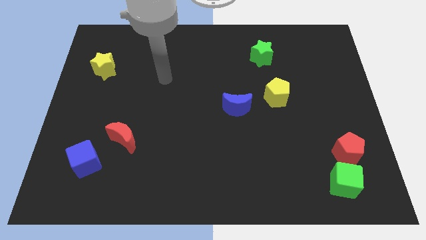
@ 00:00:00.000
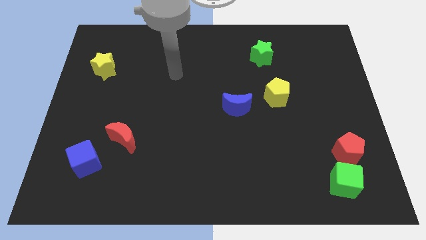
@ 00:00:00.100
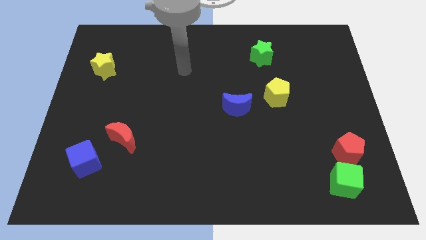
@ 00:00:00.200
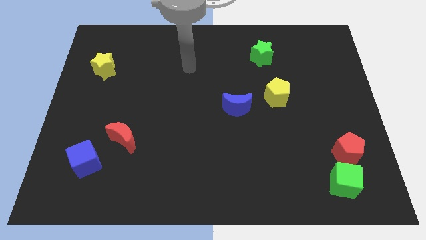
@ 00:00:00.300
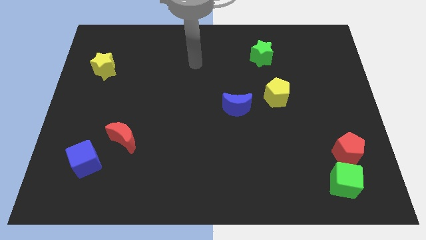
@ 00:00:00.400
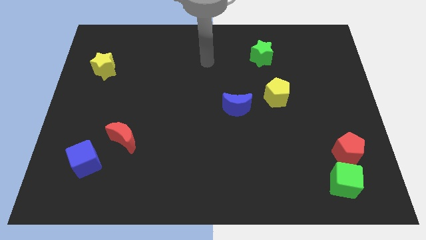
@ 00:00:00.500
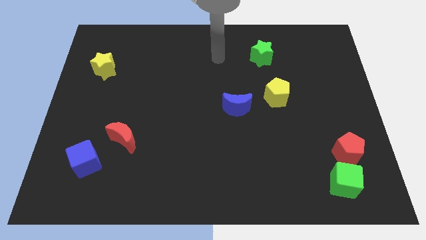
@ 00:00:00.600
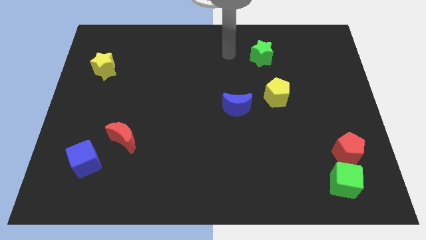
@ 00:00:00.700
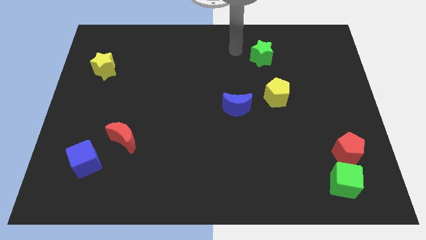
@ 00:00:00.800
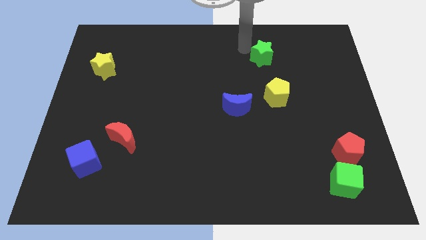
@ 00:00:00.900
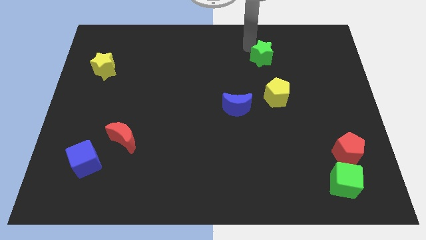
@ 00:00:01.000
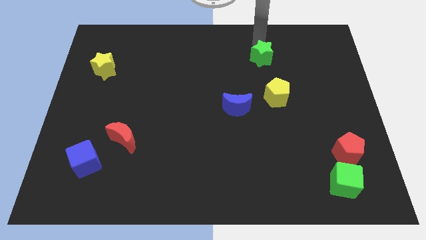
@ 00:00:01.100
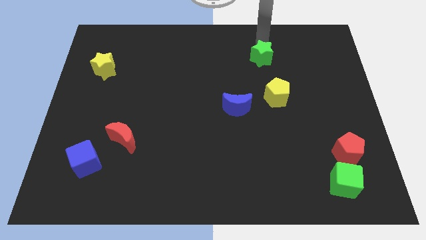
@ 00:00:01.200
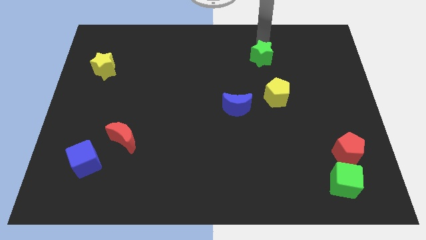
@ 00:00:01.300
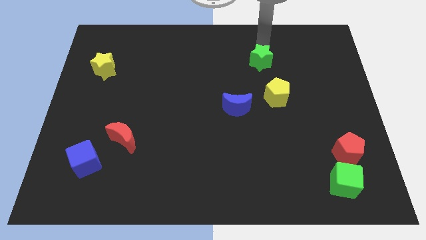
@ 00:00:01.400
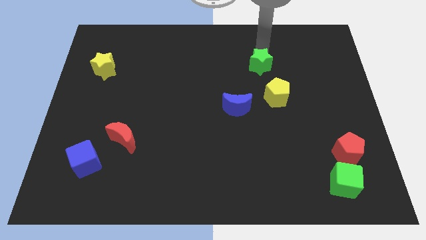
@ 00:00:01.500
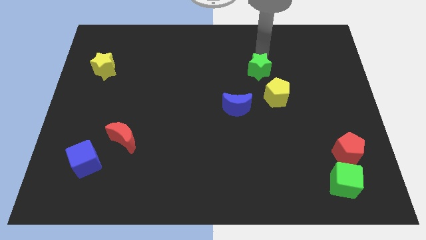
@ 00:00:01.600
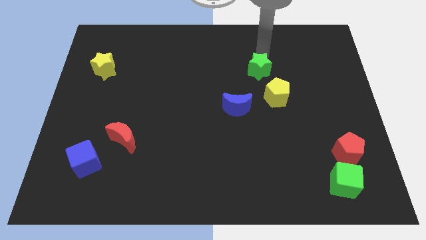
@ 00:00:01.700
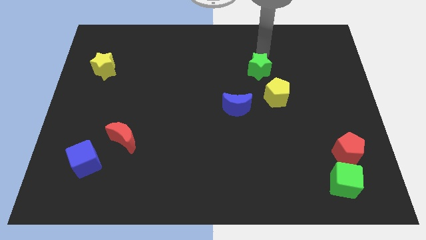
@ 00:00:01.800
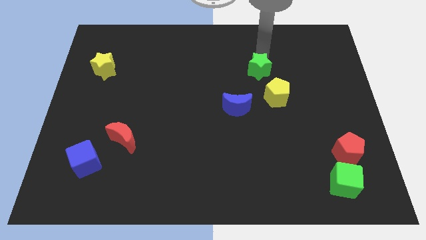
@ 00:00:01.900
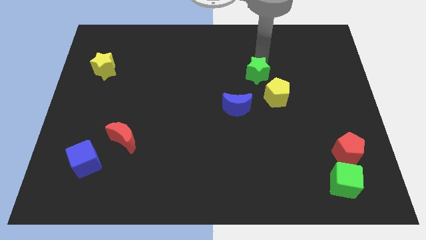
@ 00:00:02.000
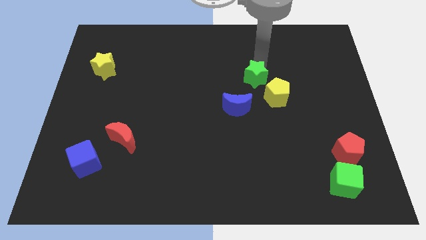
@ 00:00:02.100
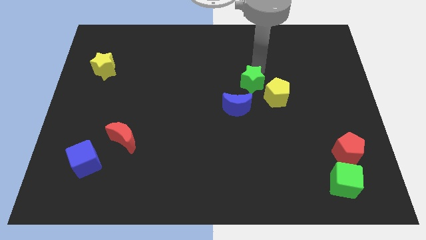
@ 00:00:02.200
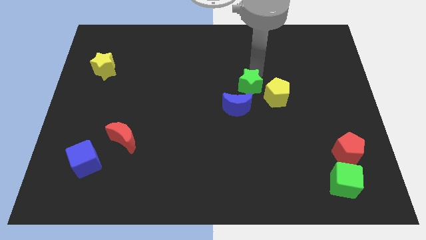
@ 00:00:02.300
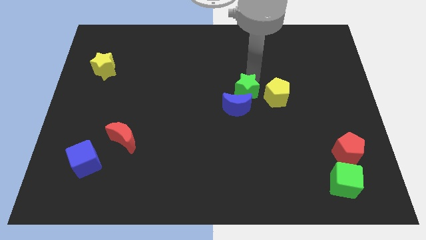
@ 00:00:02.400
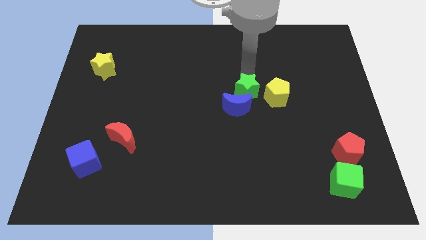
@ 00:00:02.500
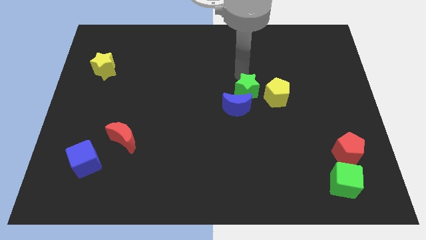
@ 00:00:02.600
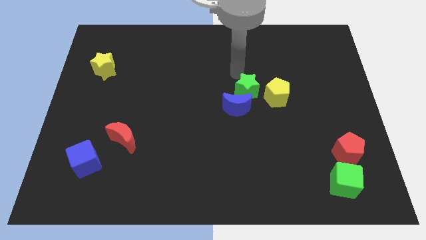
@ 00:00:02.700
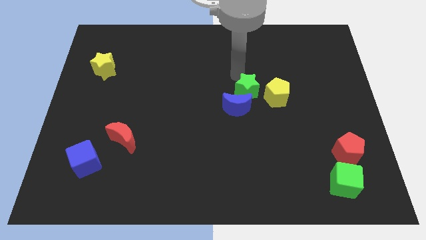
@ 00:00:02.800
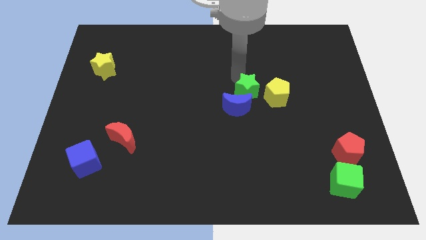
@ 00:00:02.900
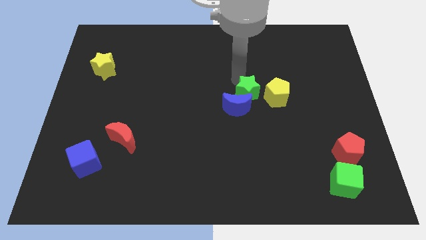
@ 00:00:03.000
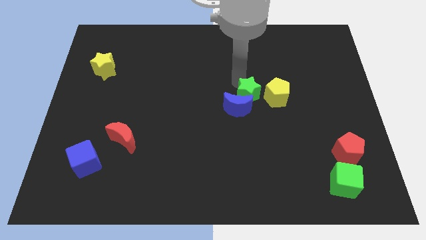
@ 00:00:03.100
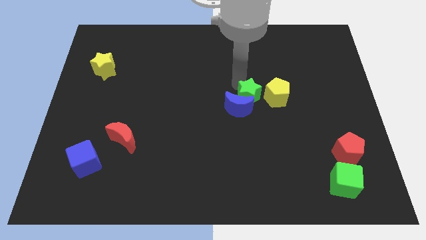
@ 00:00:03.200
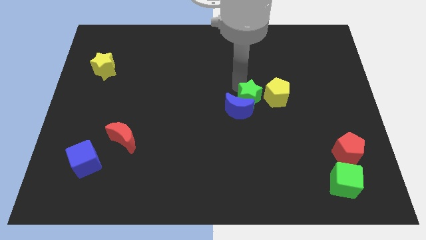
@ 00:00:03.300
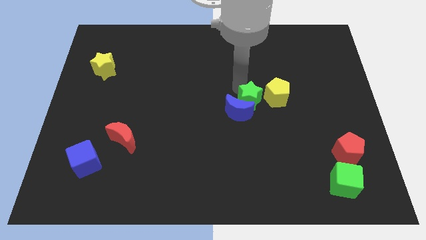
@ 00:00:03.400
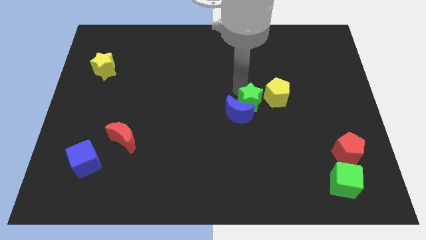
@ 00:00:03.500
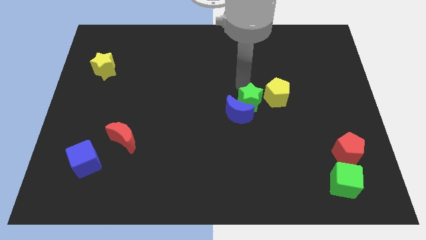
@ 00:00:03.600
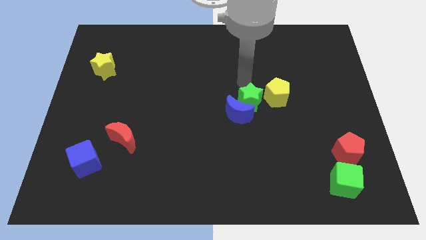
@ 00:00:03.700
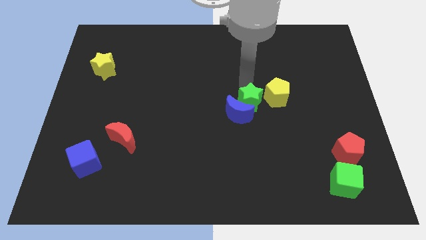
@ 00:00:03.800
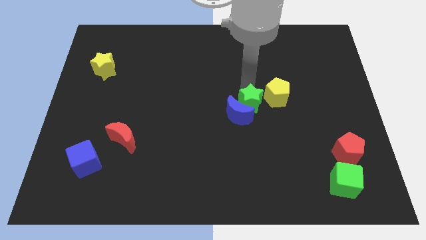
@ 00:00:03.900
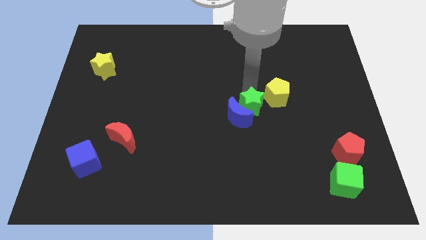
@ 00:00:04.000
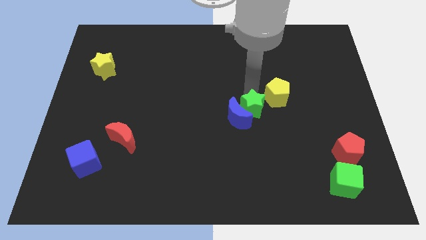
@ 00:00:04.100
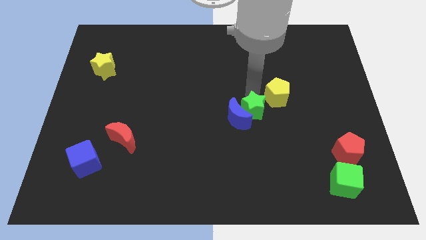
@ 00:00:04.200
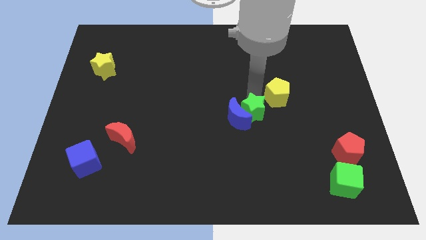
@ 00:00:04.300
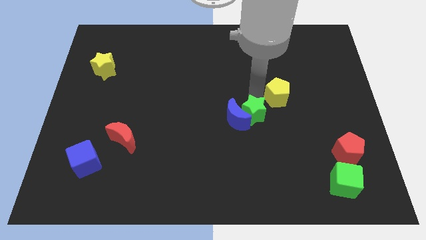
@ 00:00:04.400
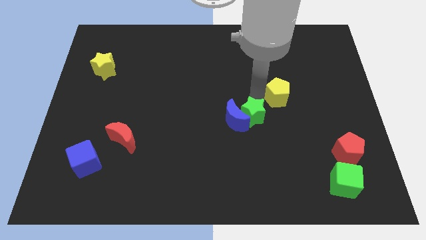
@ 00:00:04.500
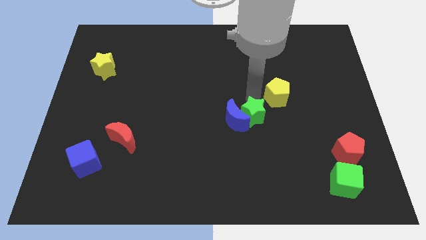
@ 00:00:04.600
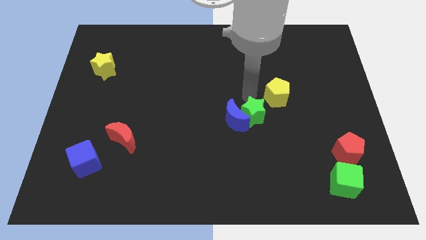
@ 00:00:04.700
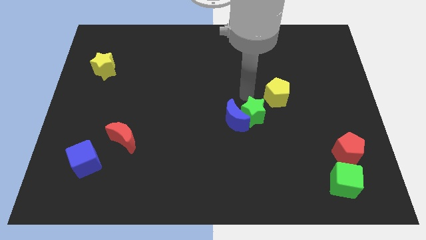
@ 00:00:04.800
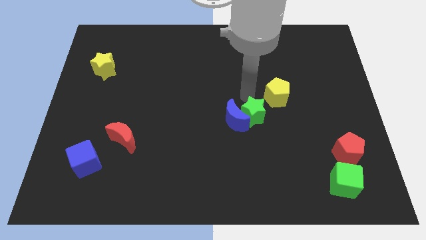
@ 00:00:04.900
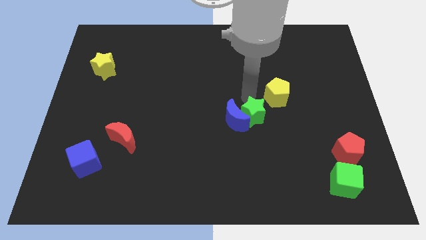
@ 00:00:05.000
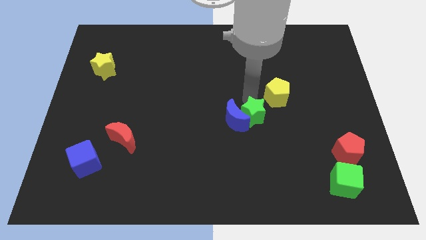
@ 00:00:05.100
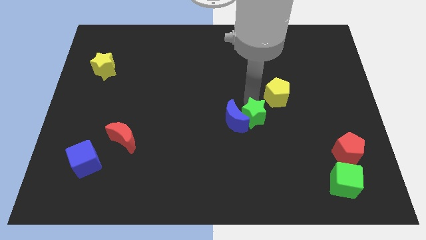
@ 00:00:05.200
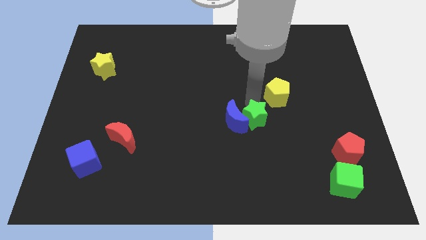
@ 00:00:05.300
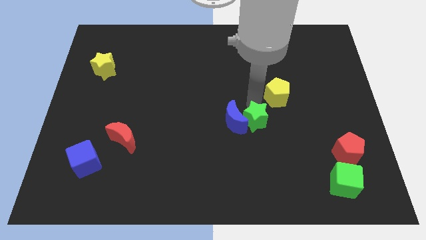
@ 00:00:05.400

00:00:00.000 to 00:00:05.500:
move the green star downwards

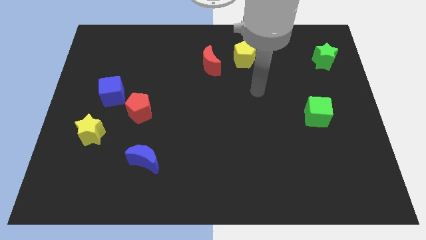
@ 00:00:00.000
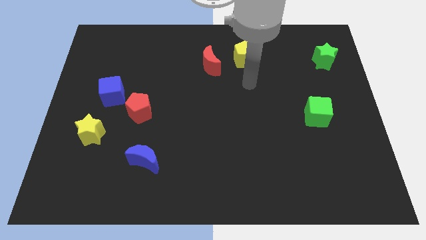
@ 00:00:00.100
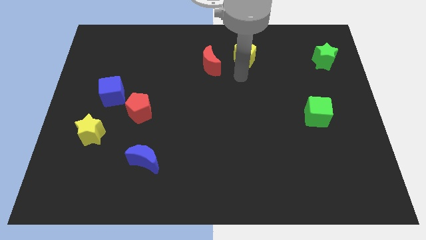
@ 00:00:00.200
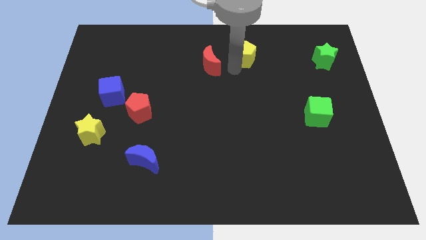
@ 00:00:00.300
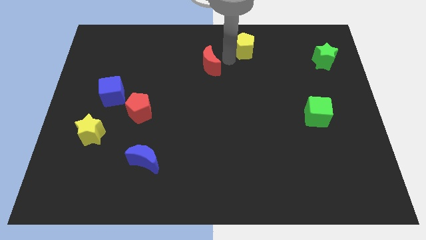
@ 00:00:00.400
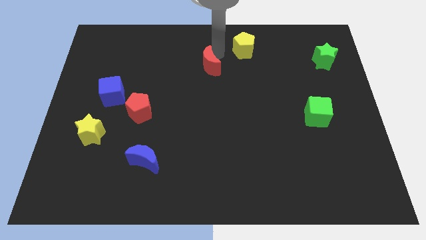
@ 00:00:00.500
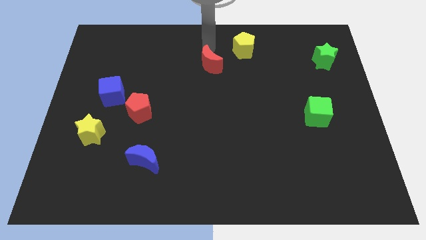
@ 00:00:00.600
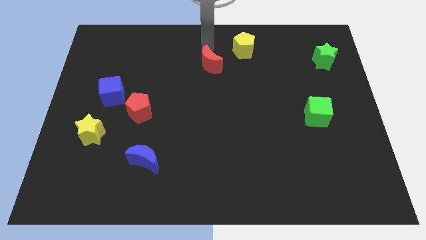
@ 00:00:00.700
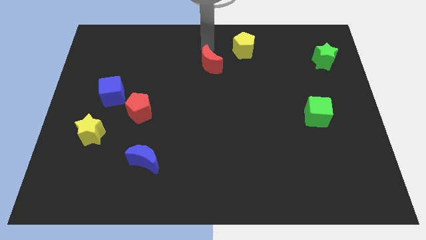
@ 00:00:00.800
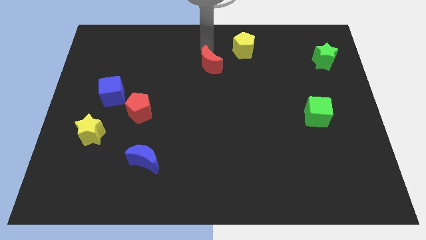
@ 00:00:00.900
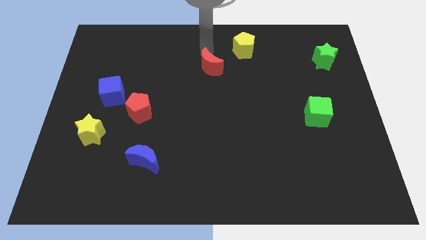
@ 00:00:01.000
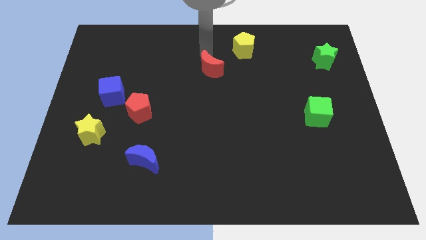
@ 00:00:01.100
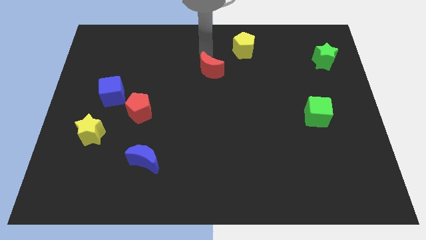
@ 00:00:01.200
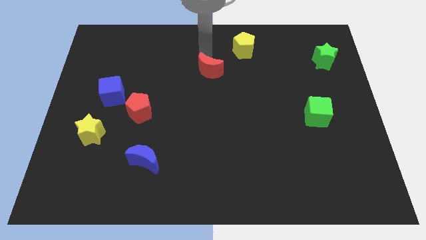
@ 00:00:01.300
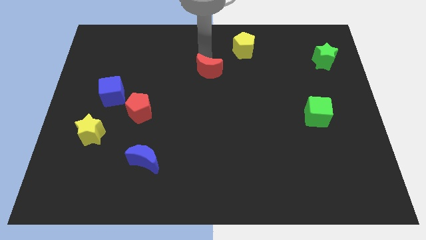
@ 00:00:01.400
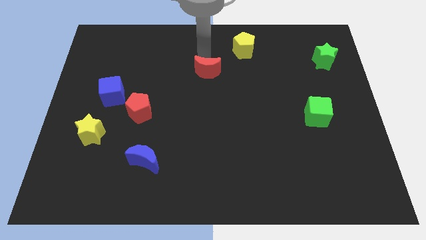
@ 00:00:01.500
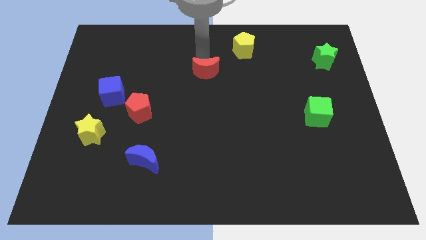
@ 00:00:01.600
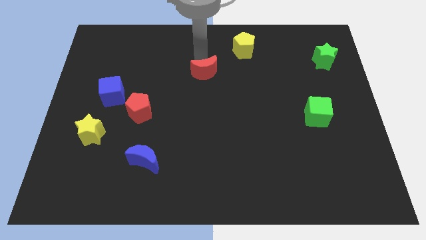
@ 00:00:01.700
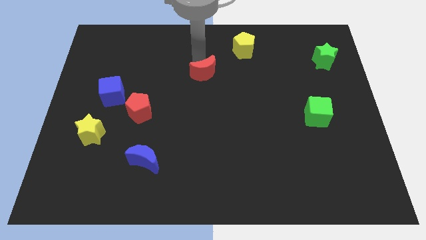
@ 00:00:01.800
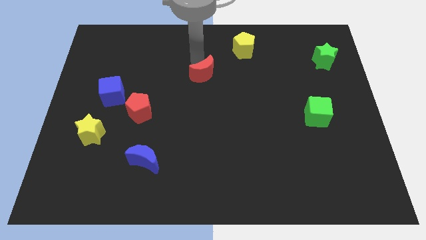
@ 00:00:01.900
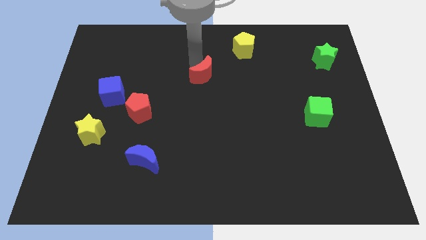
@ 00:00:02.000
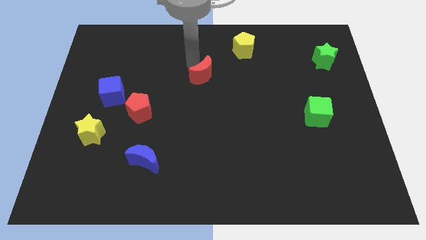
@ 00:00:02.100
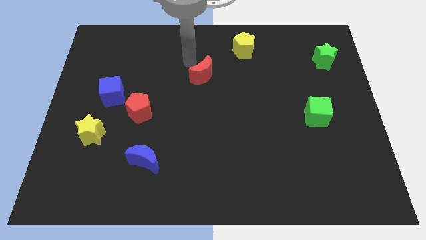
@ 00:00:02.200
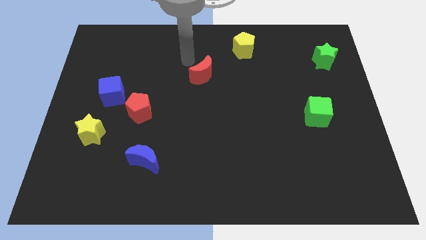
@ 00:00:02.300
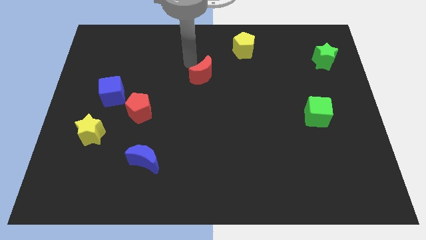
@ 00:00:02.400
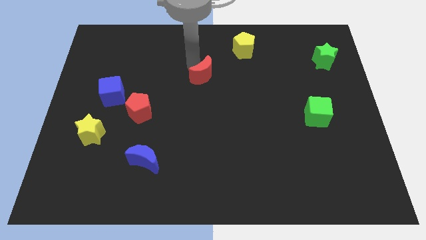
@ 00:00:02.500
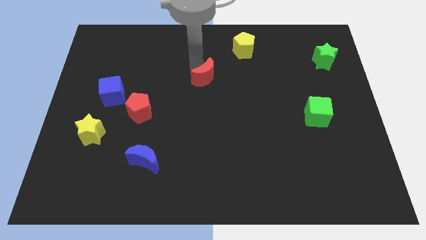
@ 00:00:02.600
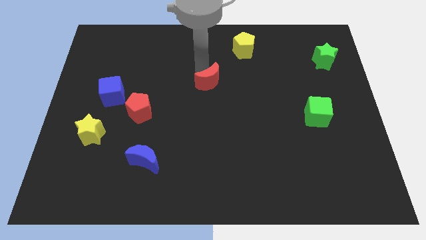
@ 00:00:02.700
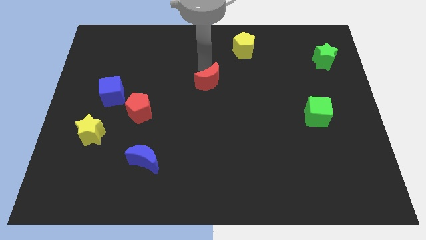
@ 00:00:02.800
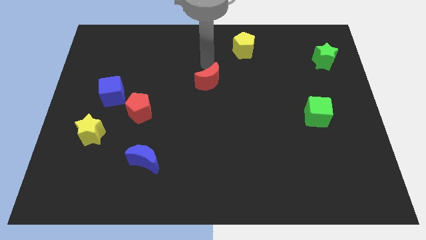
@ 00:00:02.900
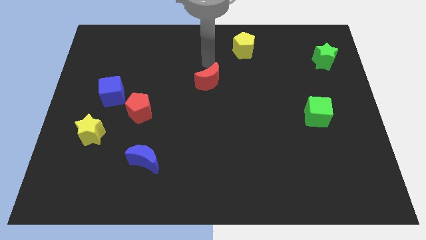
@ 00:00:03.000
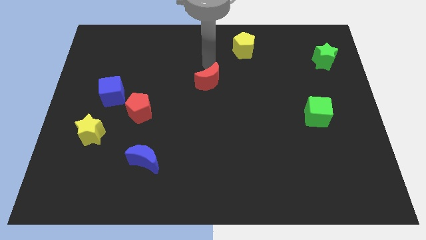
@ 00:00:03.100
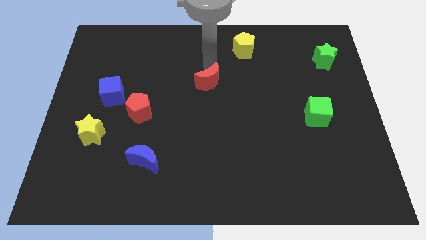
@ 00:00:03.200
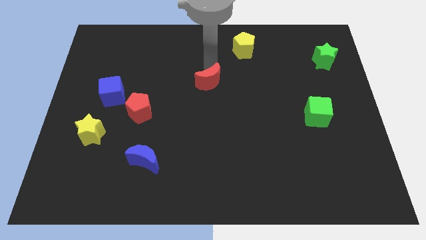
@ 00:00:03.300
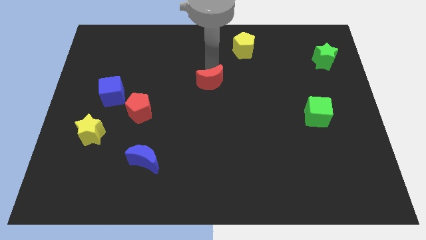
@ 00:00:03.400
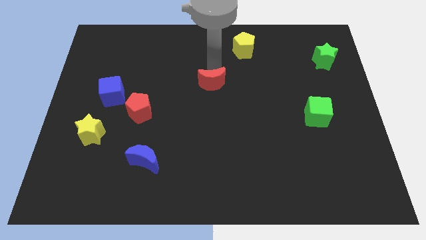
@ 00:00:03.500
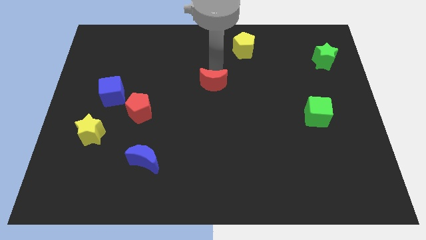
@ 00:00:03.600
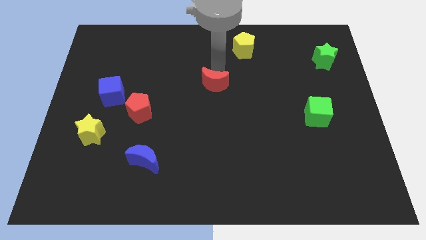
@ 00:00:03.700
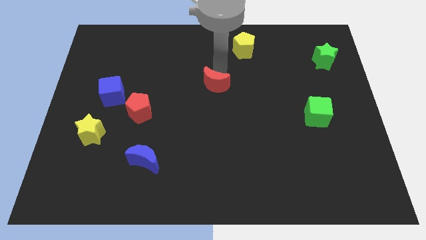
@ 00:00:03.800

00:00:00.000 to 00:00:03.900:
push the red moon downwards slightly
